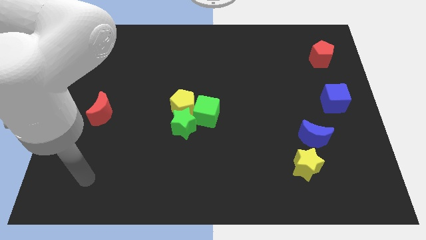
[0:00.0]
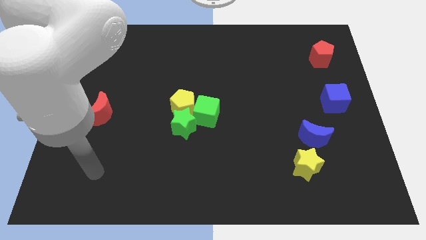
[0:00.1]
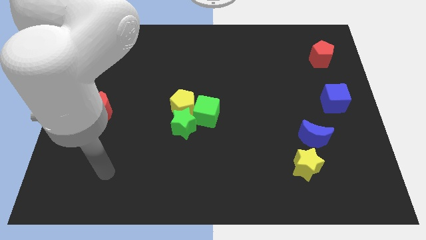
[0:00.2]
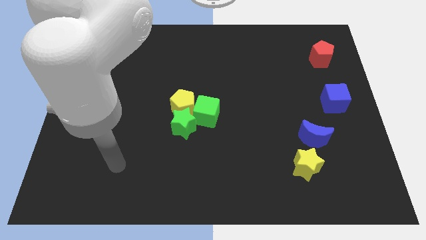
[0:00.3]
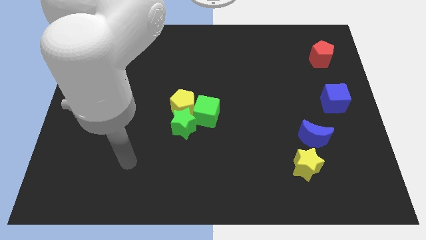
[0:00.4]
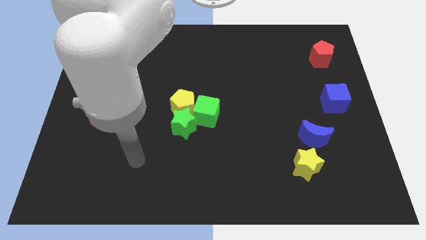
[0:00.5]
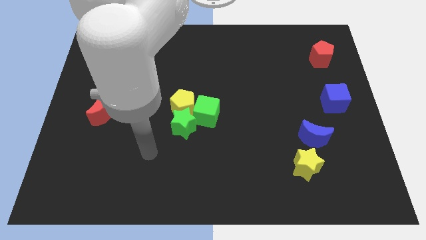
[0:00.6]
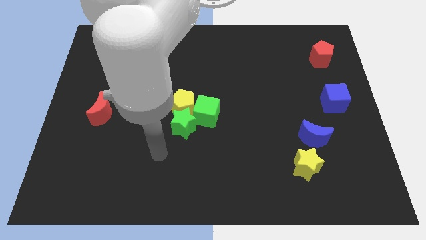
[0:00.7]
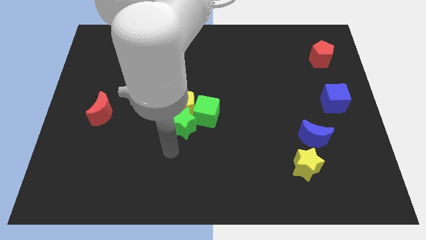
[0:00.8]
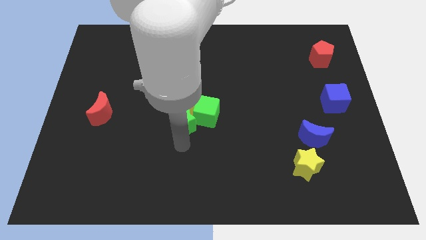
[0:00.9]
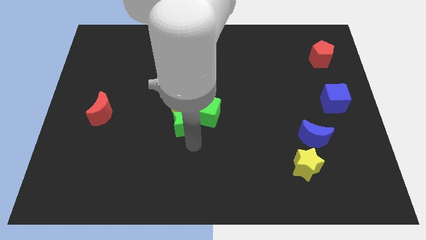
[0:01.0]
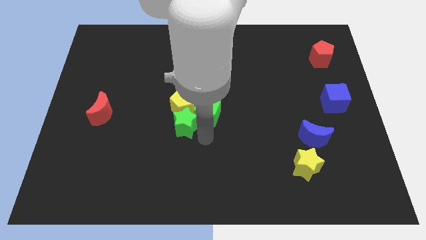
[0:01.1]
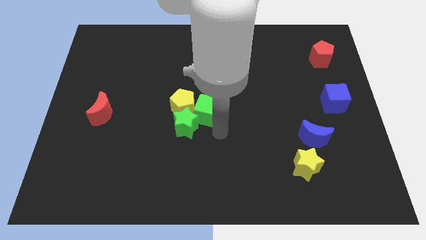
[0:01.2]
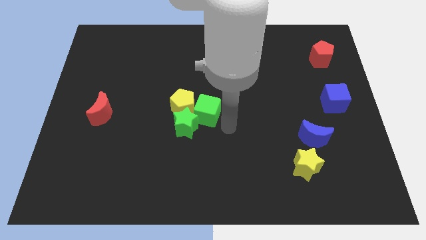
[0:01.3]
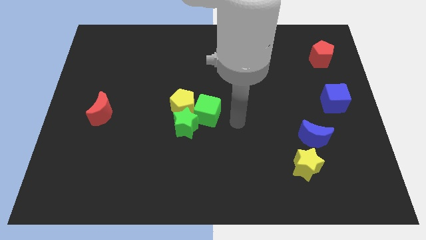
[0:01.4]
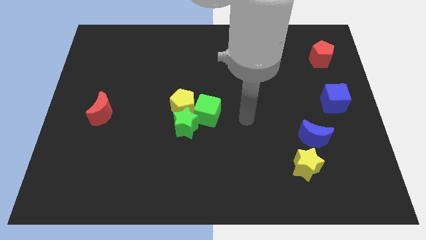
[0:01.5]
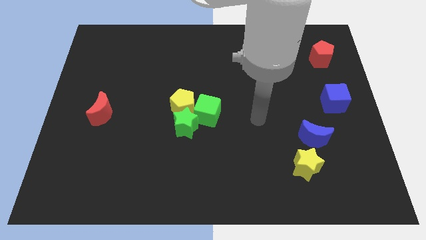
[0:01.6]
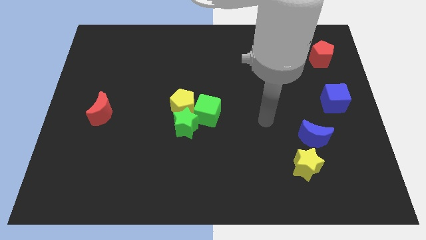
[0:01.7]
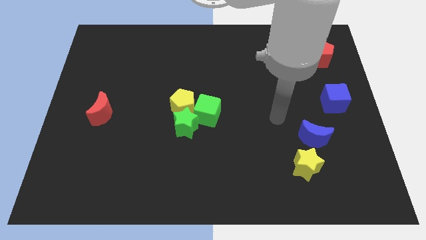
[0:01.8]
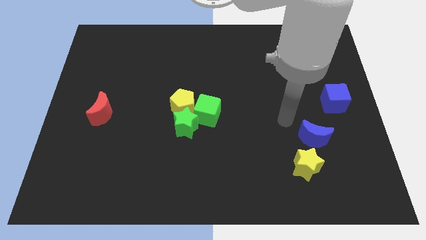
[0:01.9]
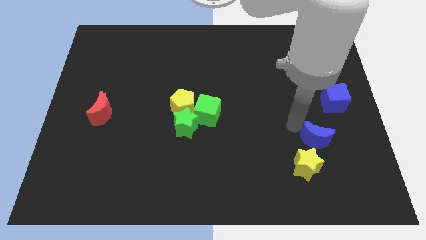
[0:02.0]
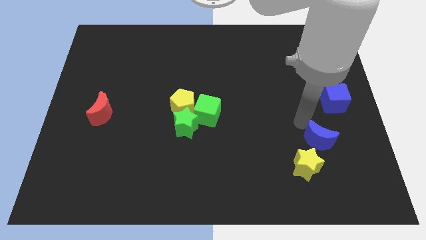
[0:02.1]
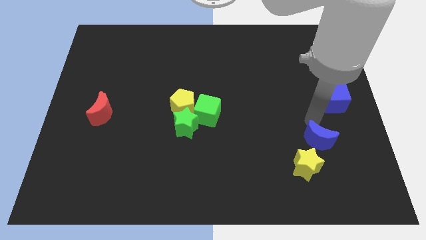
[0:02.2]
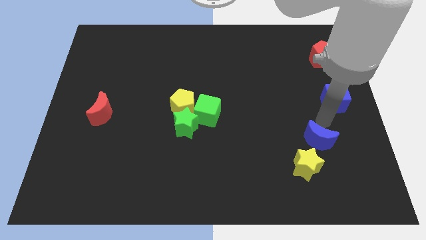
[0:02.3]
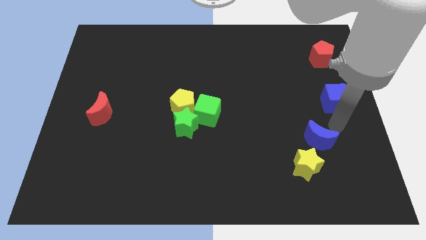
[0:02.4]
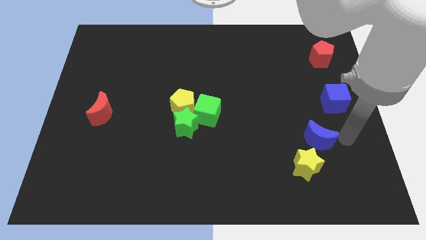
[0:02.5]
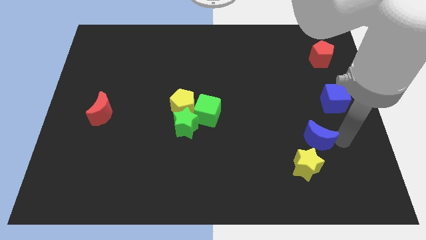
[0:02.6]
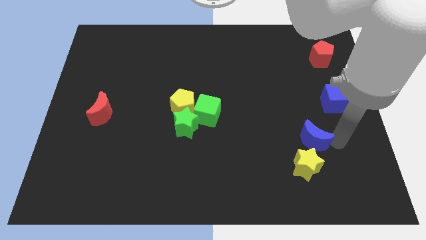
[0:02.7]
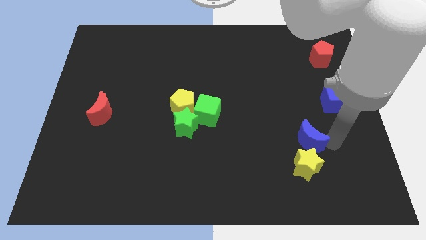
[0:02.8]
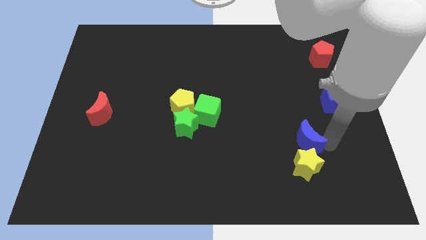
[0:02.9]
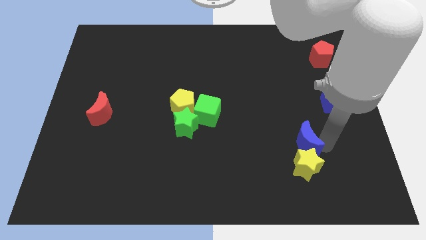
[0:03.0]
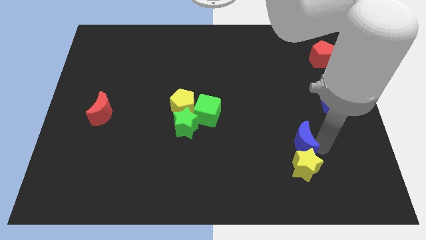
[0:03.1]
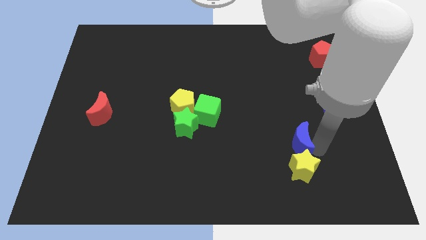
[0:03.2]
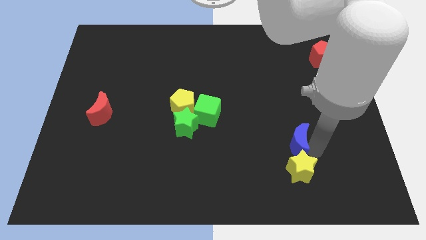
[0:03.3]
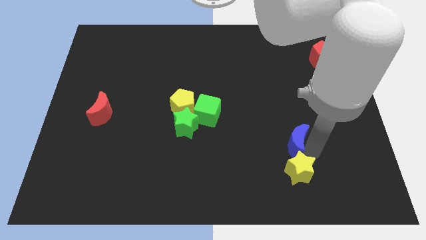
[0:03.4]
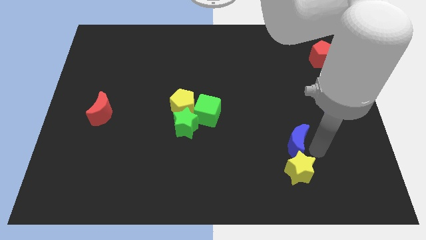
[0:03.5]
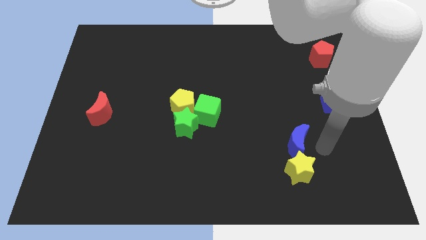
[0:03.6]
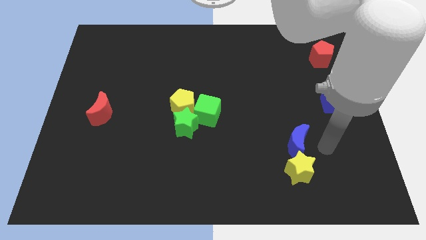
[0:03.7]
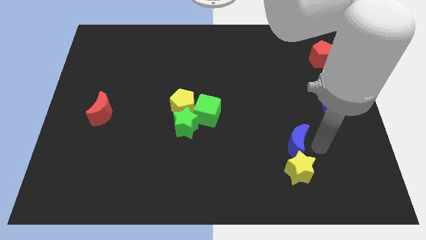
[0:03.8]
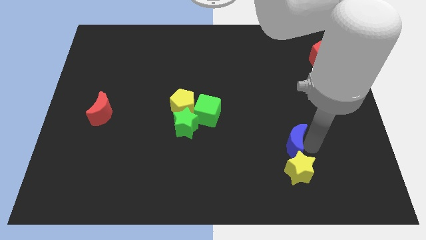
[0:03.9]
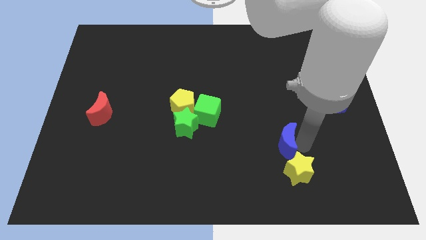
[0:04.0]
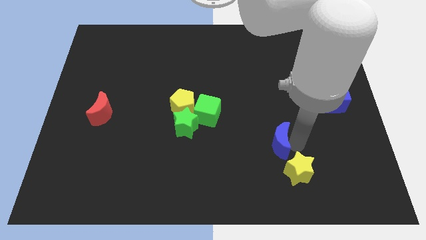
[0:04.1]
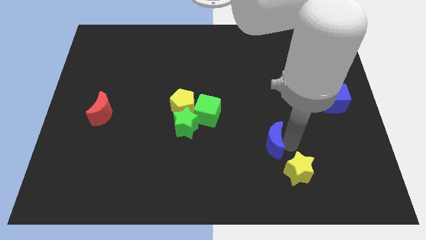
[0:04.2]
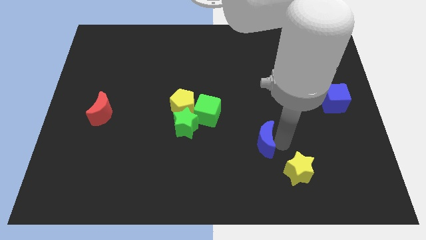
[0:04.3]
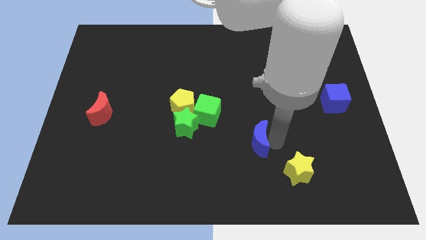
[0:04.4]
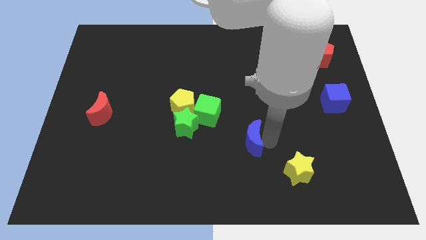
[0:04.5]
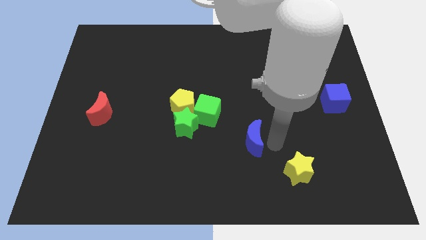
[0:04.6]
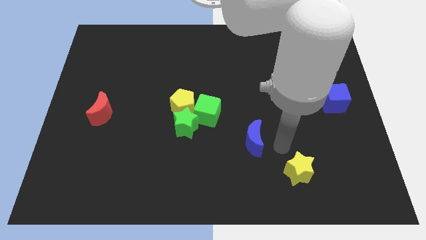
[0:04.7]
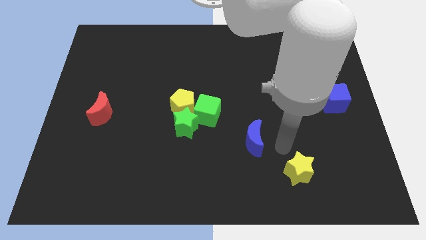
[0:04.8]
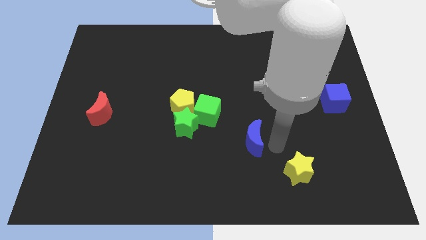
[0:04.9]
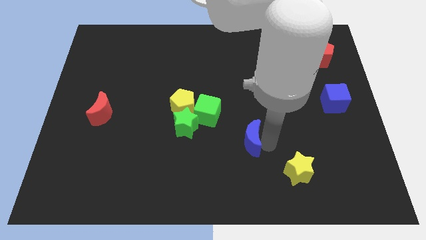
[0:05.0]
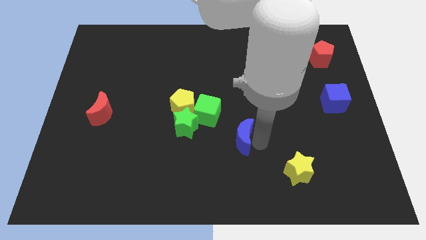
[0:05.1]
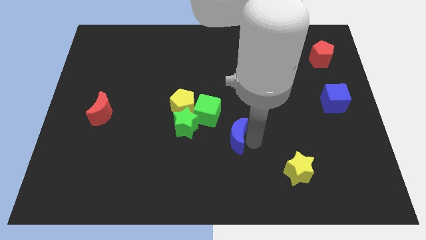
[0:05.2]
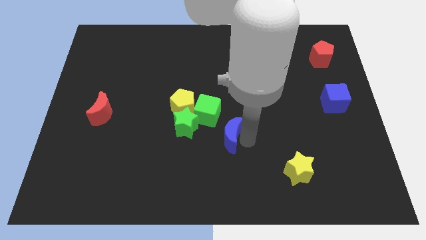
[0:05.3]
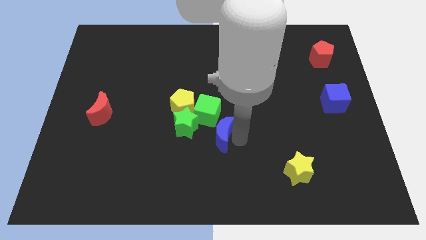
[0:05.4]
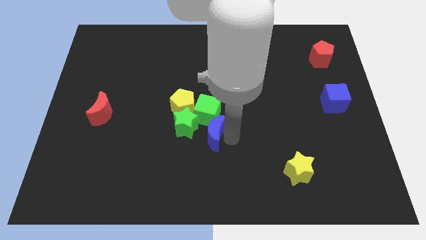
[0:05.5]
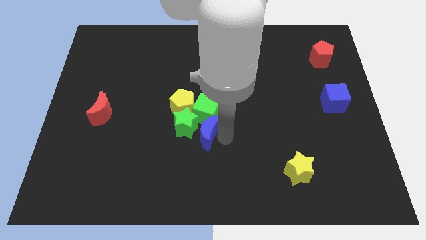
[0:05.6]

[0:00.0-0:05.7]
move the blue moon to the green star

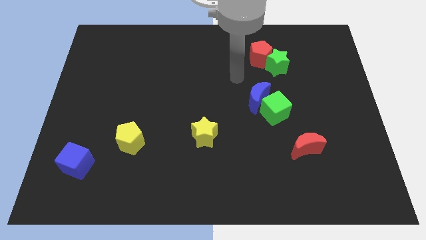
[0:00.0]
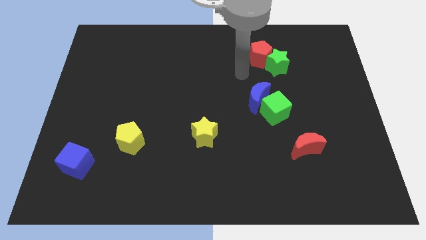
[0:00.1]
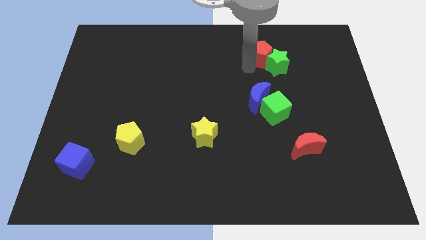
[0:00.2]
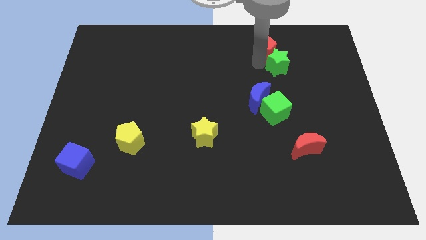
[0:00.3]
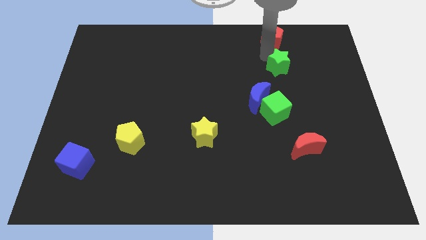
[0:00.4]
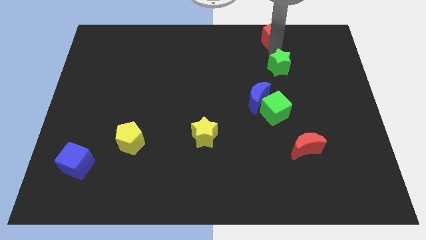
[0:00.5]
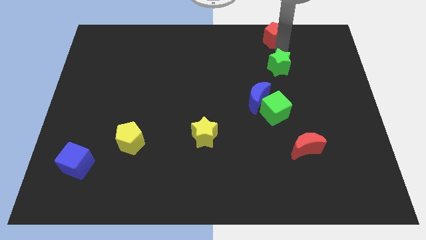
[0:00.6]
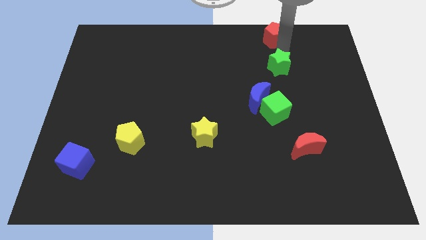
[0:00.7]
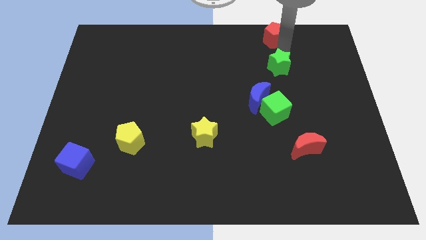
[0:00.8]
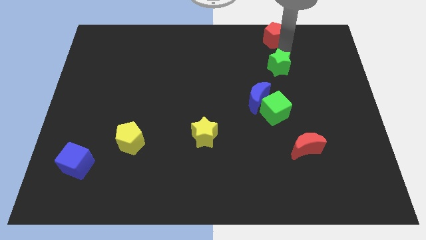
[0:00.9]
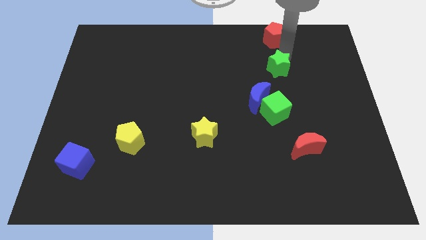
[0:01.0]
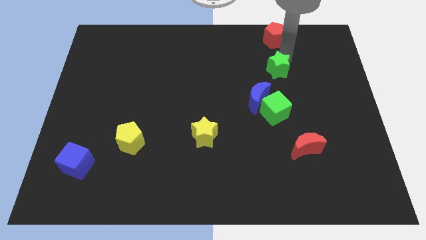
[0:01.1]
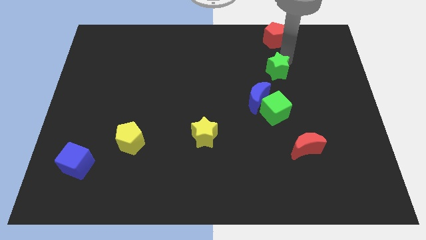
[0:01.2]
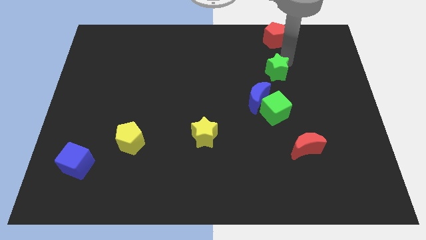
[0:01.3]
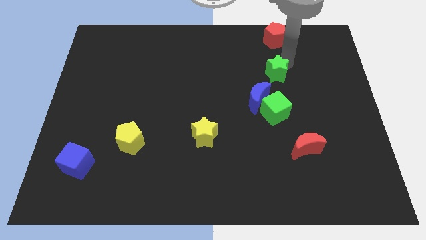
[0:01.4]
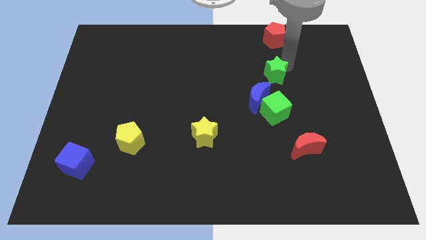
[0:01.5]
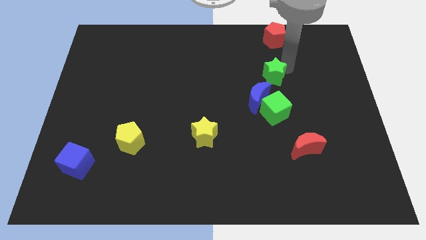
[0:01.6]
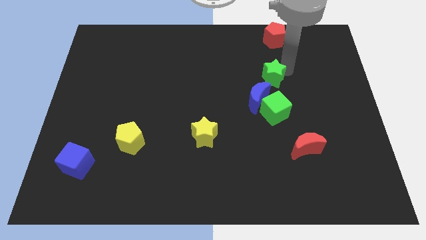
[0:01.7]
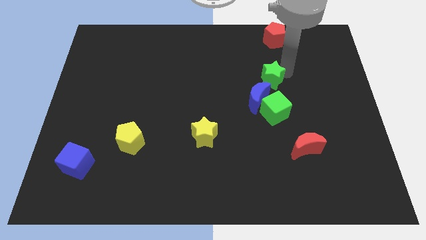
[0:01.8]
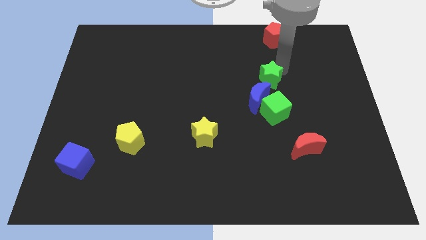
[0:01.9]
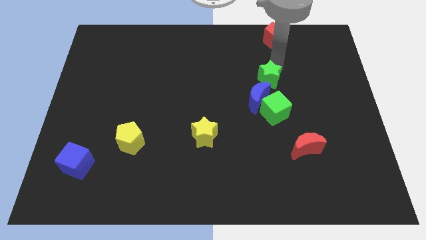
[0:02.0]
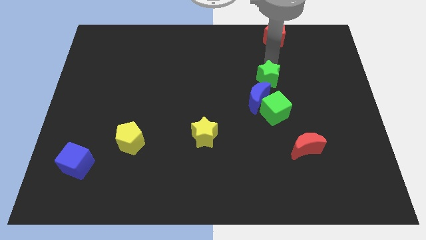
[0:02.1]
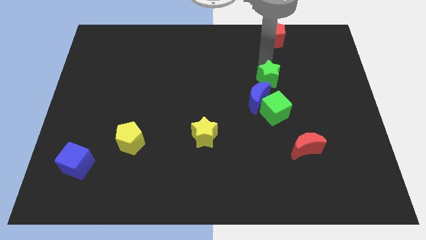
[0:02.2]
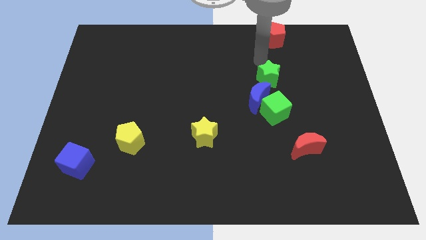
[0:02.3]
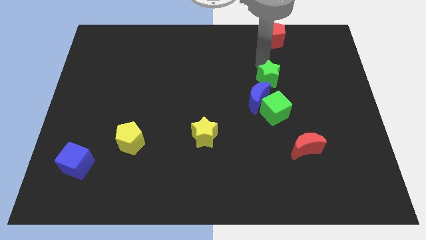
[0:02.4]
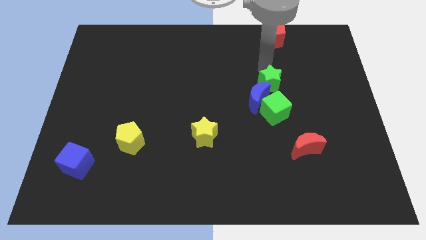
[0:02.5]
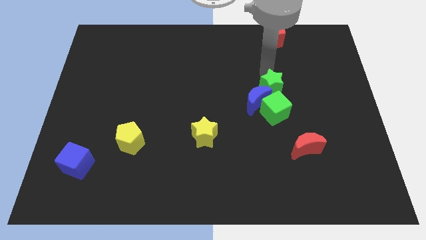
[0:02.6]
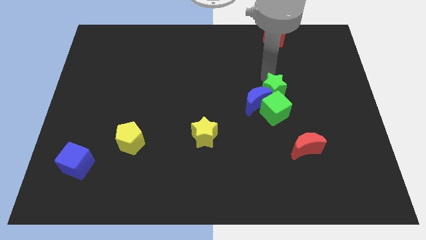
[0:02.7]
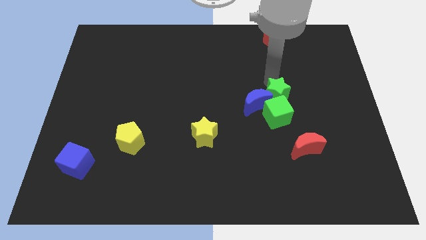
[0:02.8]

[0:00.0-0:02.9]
push the green star next to the green cube
